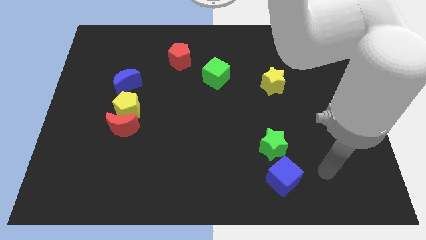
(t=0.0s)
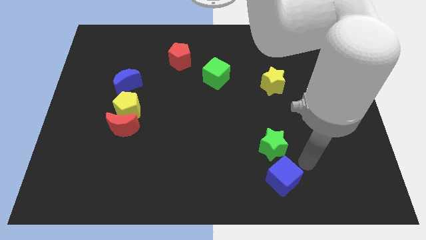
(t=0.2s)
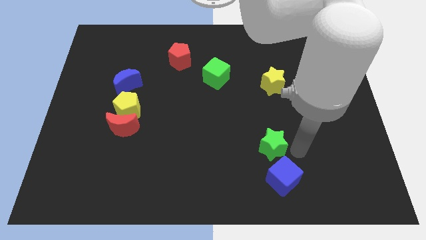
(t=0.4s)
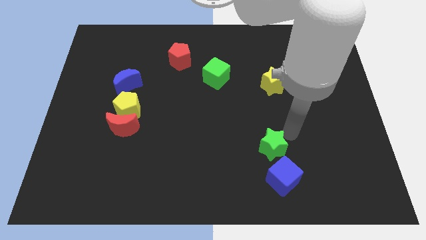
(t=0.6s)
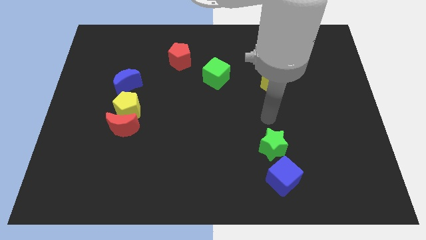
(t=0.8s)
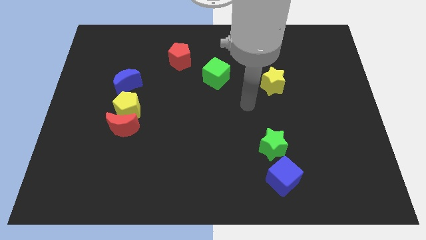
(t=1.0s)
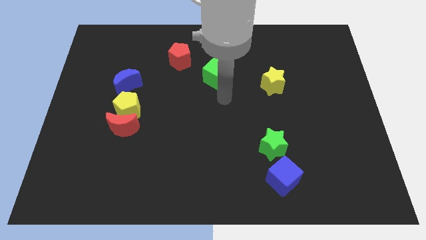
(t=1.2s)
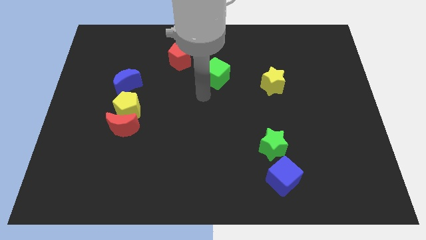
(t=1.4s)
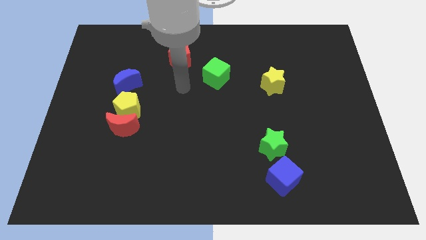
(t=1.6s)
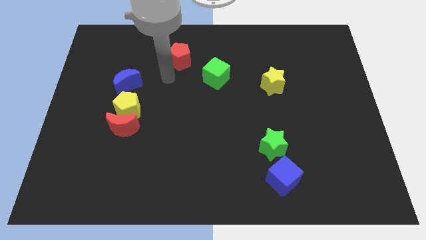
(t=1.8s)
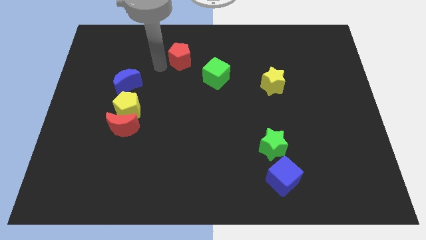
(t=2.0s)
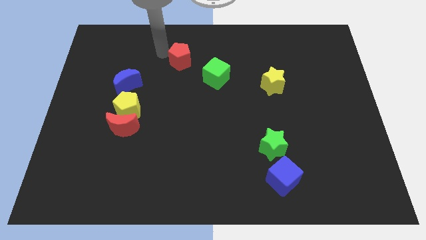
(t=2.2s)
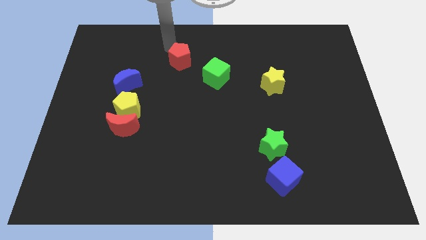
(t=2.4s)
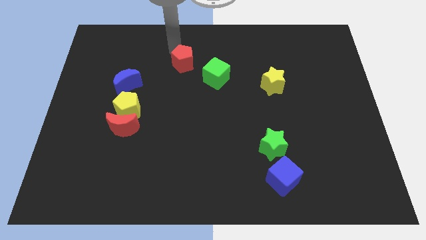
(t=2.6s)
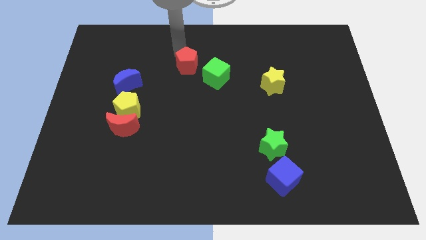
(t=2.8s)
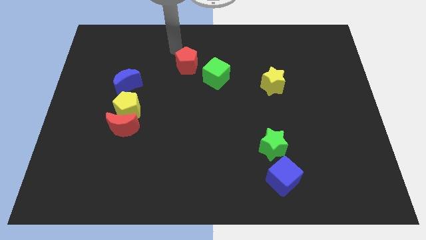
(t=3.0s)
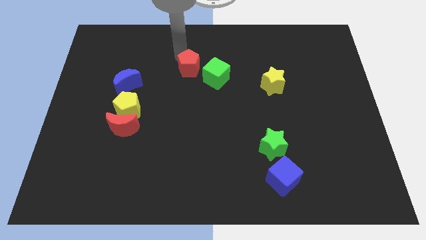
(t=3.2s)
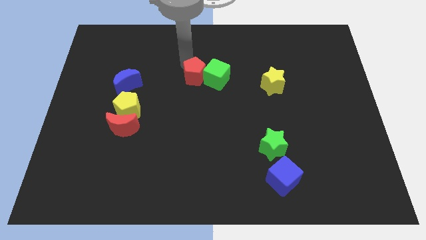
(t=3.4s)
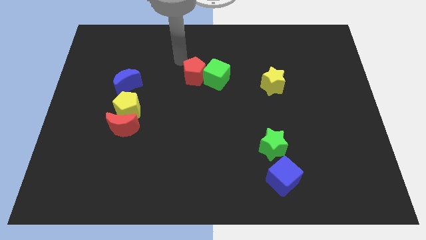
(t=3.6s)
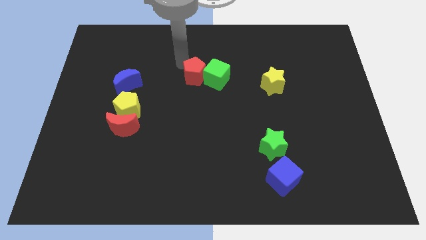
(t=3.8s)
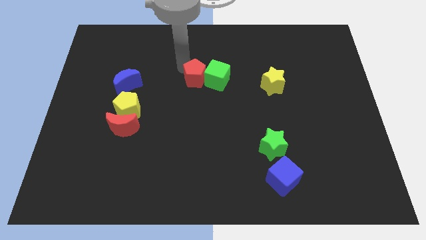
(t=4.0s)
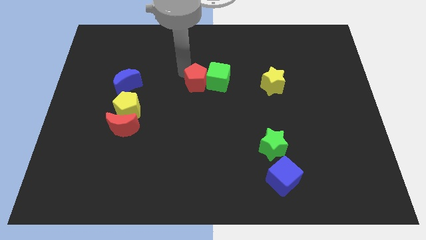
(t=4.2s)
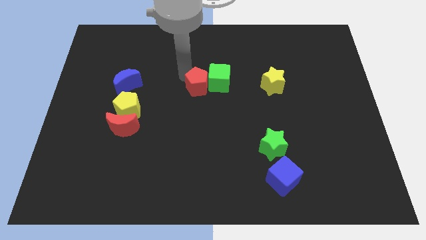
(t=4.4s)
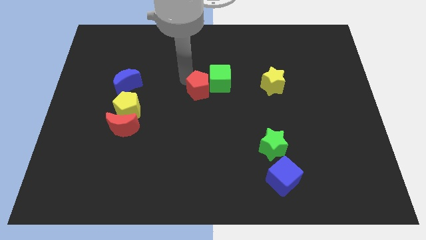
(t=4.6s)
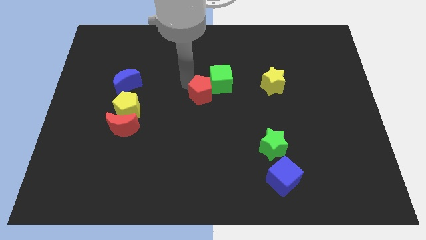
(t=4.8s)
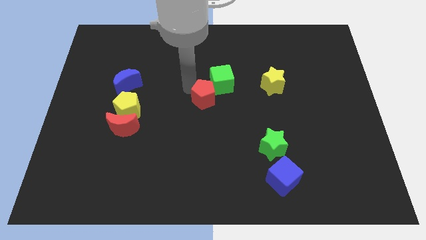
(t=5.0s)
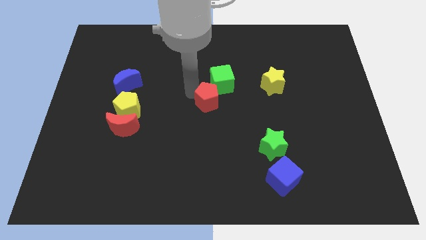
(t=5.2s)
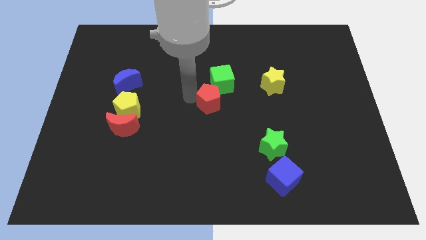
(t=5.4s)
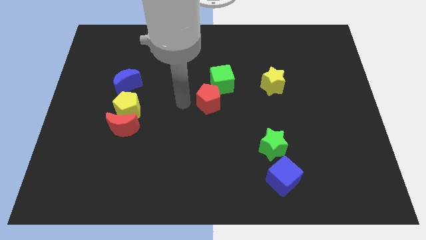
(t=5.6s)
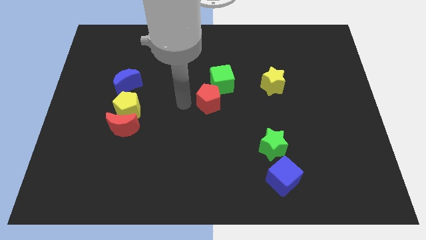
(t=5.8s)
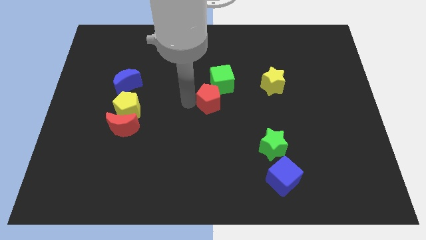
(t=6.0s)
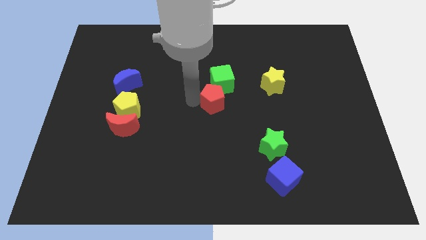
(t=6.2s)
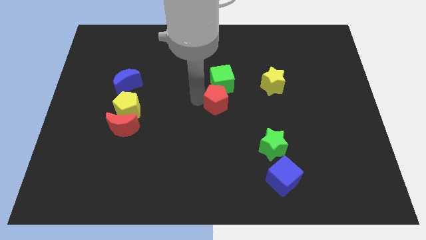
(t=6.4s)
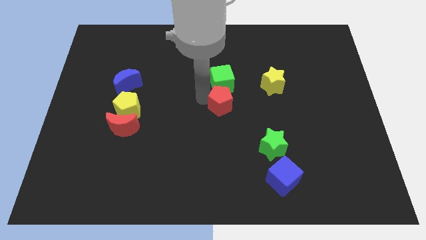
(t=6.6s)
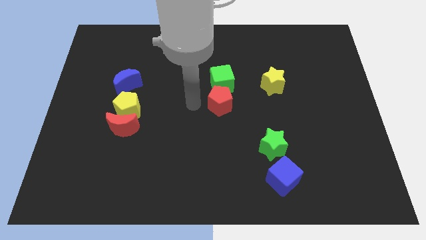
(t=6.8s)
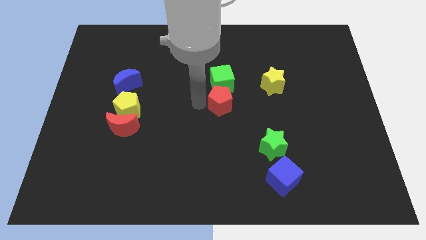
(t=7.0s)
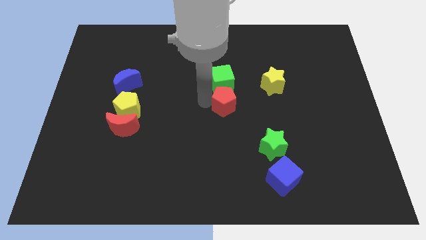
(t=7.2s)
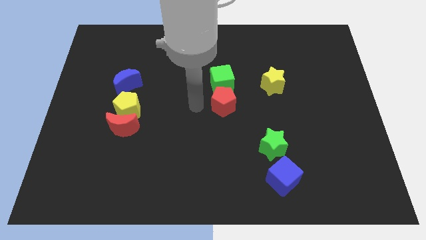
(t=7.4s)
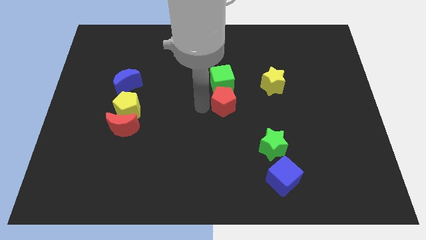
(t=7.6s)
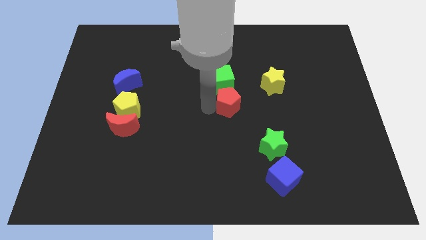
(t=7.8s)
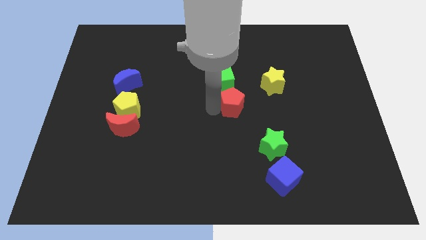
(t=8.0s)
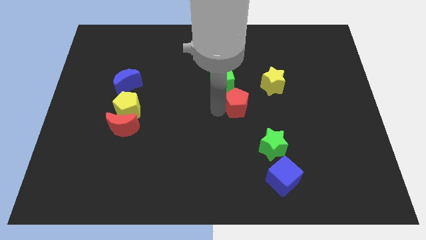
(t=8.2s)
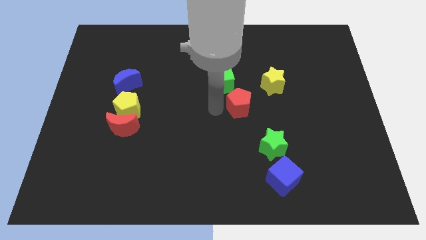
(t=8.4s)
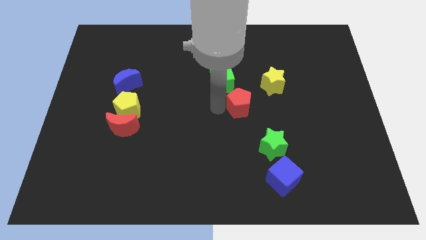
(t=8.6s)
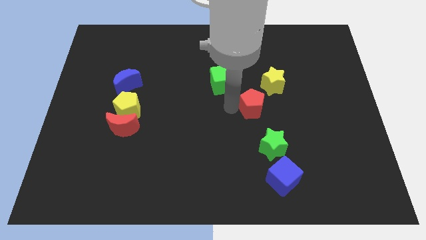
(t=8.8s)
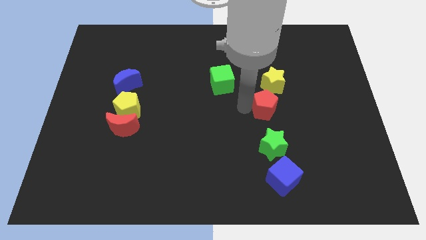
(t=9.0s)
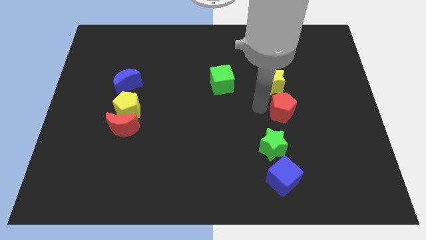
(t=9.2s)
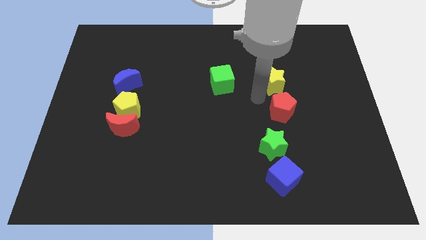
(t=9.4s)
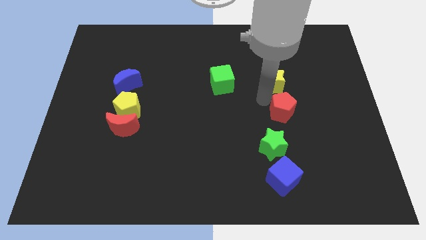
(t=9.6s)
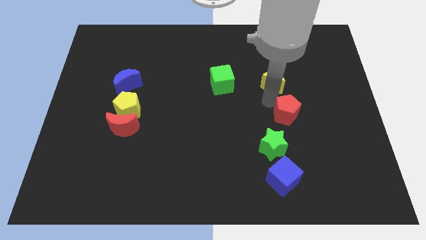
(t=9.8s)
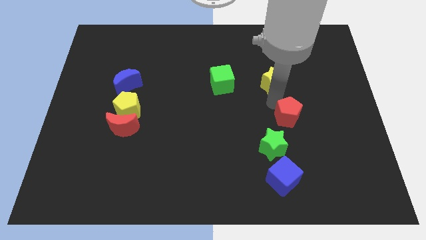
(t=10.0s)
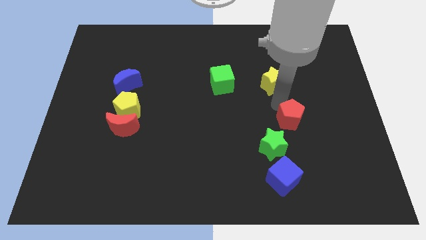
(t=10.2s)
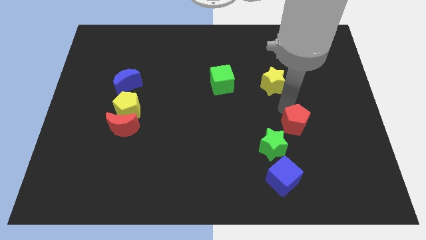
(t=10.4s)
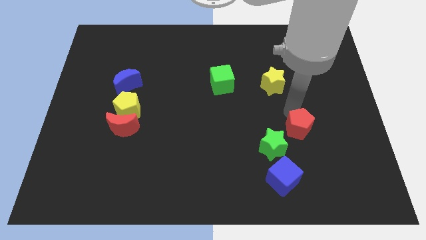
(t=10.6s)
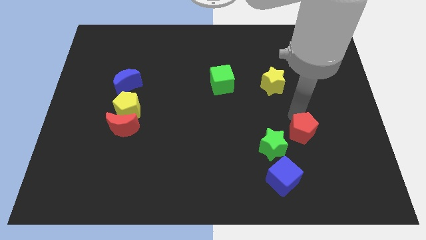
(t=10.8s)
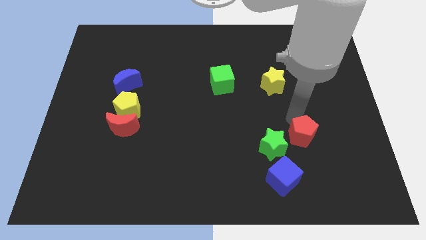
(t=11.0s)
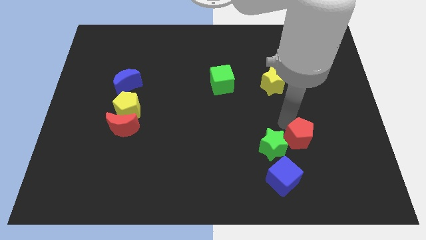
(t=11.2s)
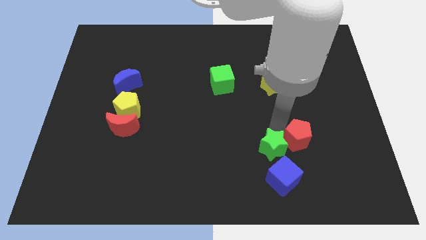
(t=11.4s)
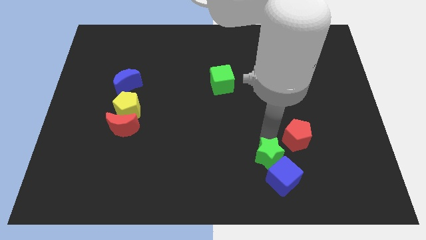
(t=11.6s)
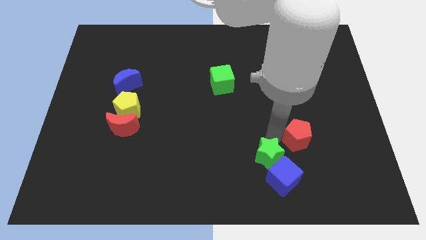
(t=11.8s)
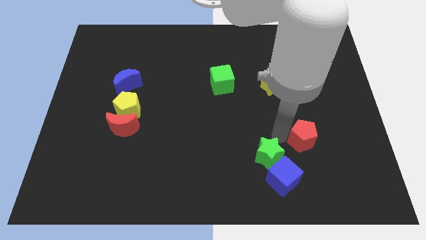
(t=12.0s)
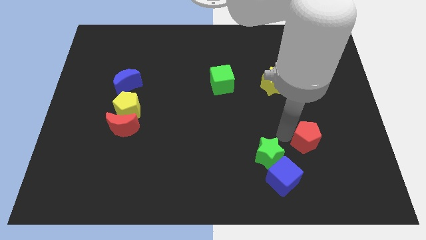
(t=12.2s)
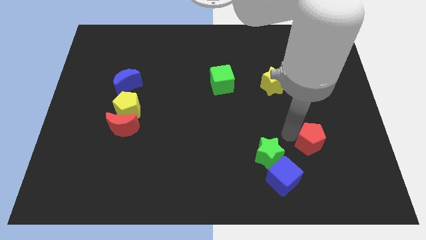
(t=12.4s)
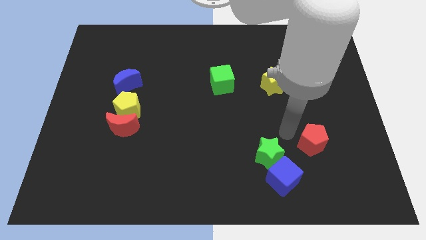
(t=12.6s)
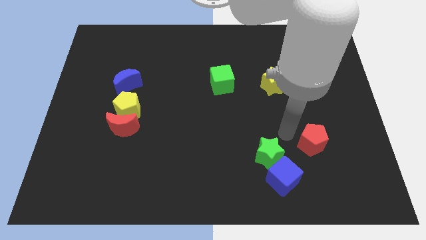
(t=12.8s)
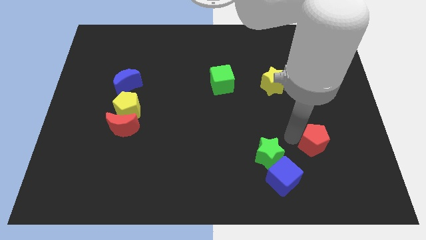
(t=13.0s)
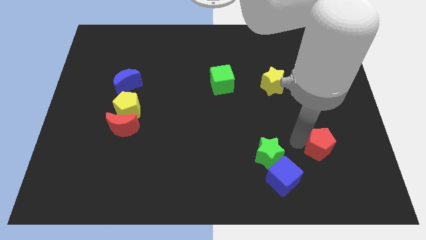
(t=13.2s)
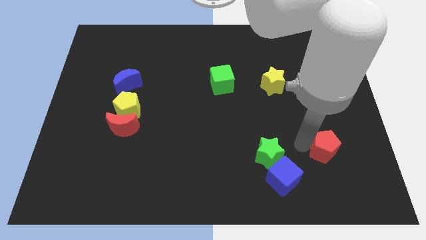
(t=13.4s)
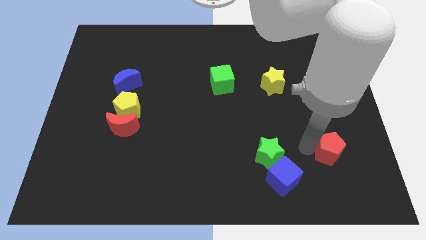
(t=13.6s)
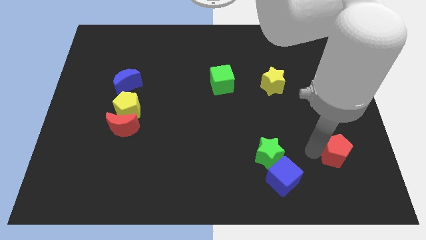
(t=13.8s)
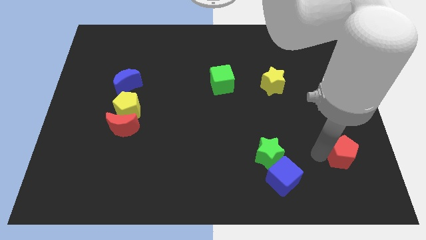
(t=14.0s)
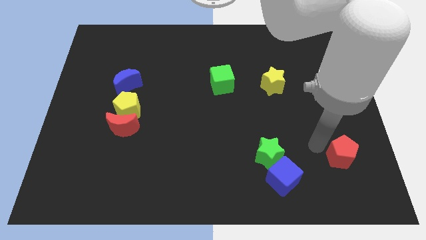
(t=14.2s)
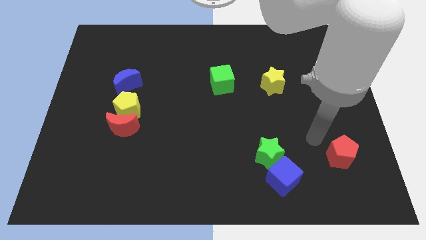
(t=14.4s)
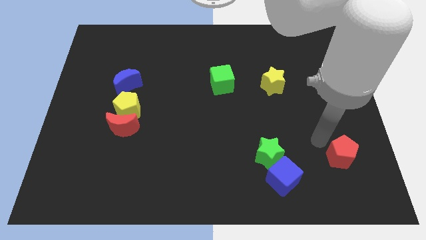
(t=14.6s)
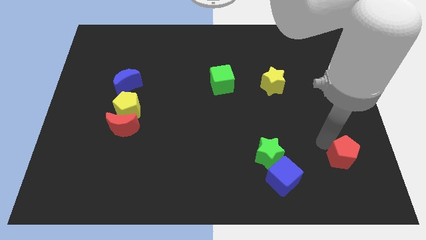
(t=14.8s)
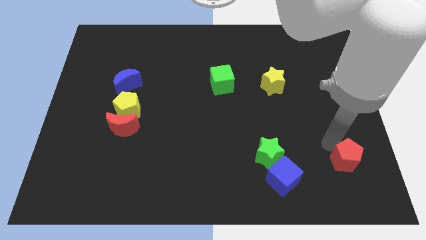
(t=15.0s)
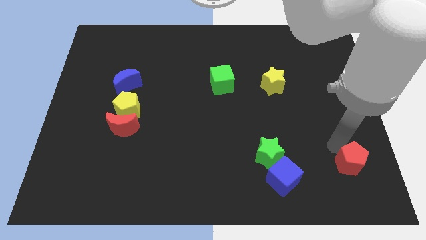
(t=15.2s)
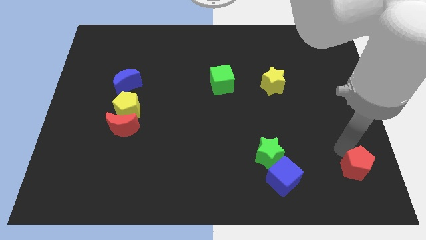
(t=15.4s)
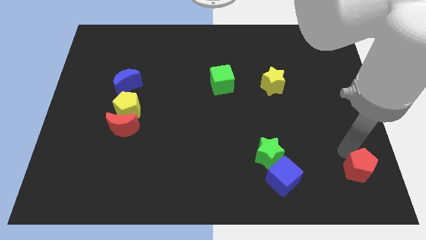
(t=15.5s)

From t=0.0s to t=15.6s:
slide the red pentagon to the bottom right corner
